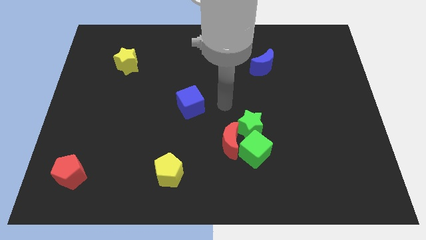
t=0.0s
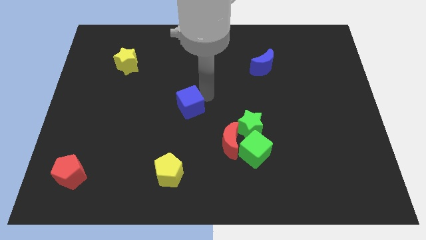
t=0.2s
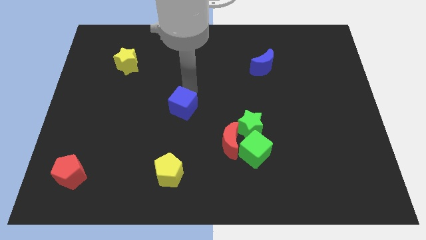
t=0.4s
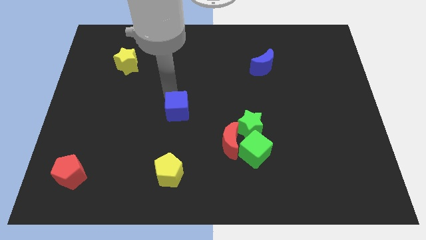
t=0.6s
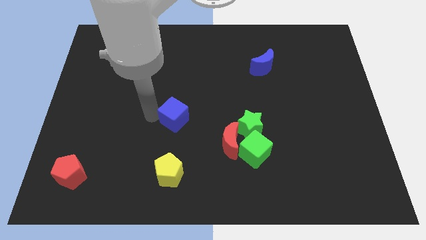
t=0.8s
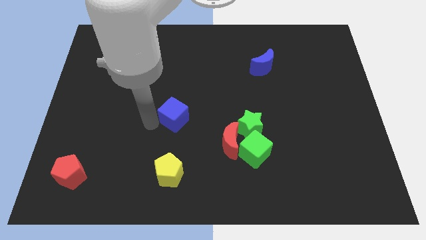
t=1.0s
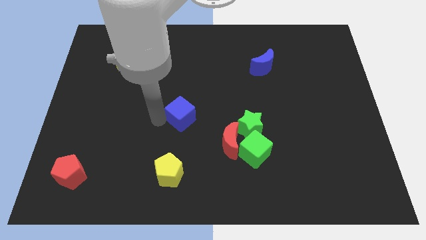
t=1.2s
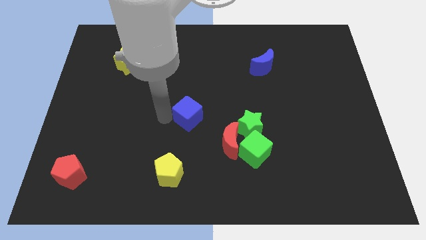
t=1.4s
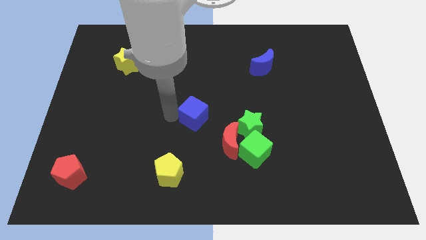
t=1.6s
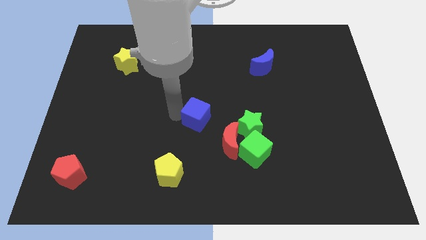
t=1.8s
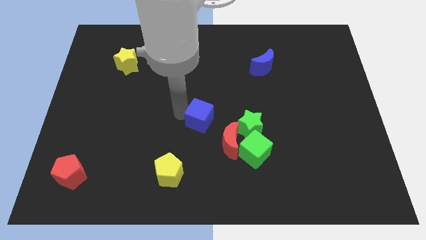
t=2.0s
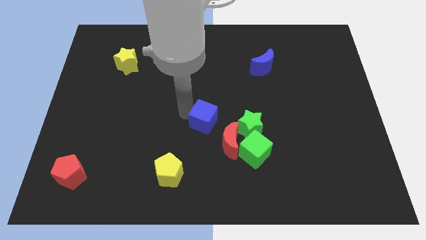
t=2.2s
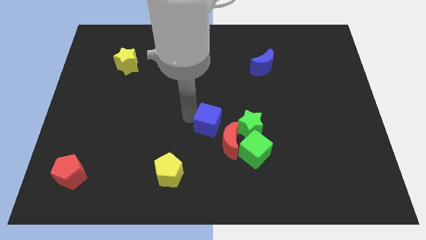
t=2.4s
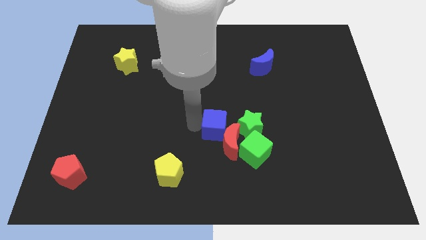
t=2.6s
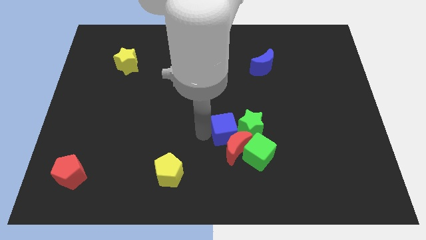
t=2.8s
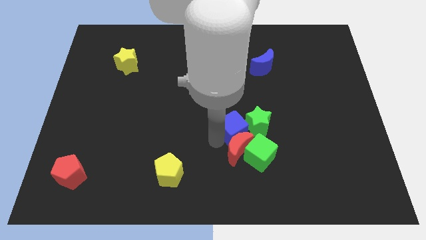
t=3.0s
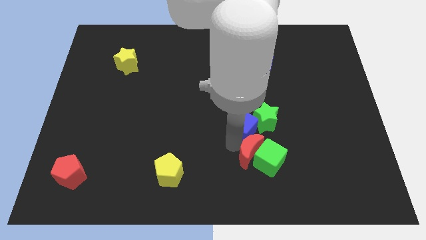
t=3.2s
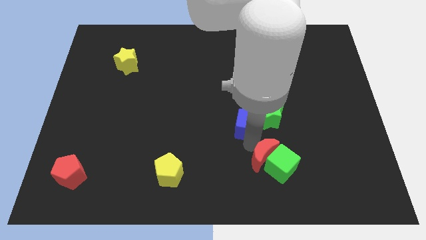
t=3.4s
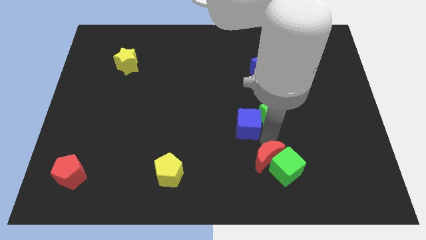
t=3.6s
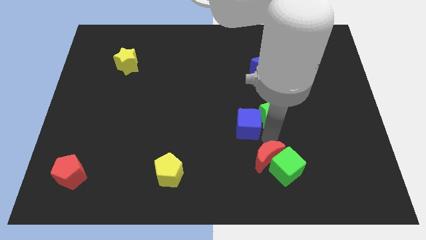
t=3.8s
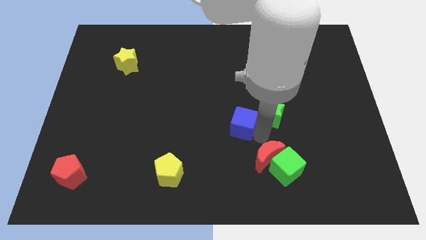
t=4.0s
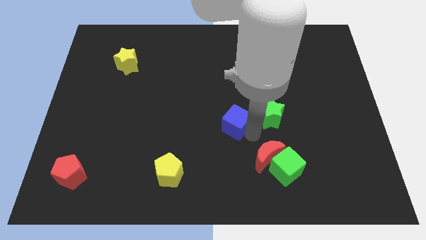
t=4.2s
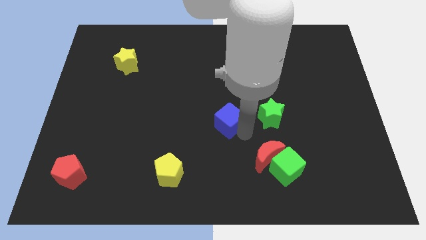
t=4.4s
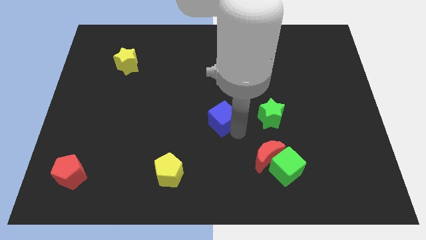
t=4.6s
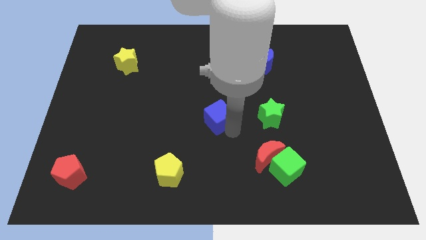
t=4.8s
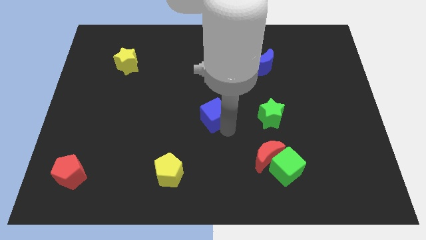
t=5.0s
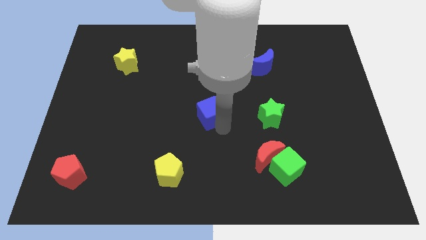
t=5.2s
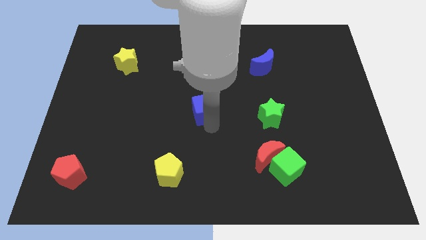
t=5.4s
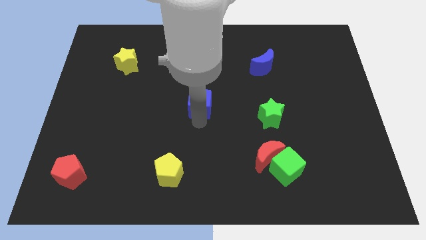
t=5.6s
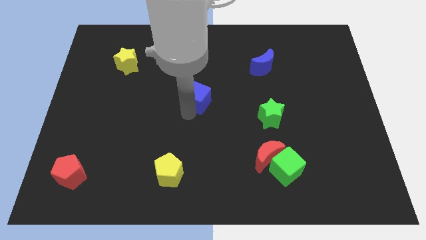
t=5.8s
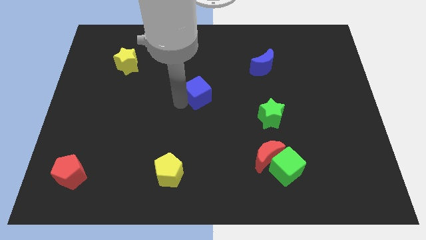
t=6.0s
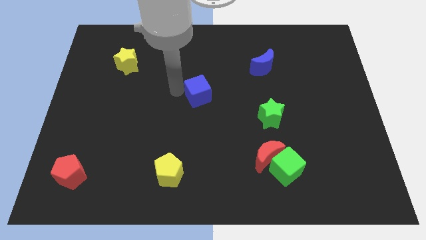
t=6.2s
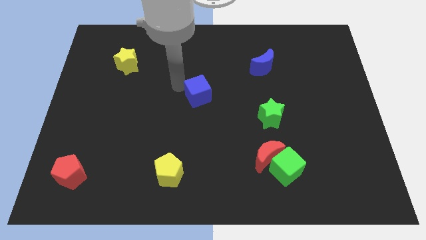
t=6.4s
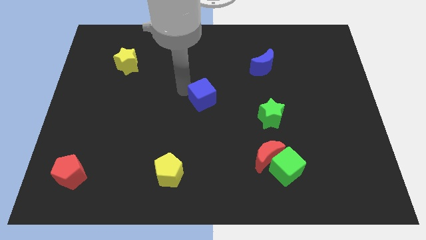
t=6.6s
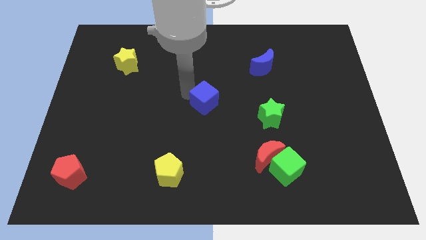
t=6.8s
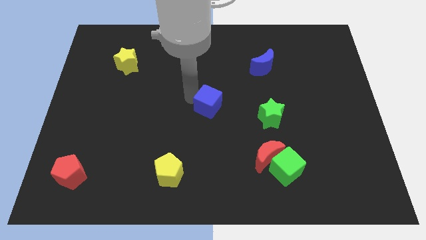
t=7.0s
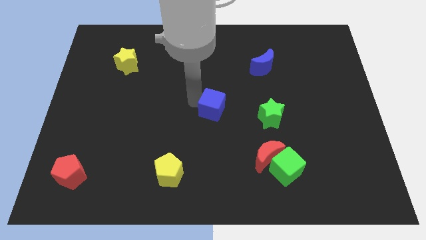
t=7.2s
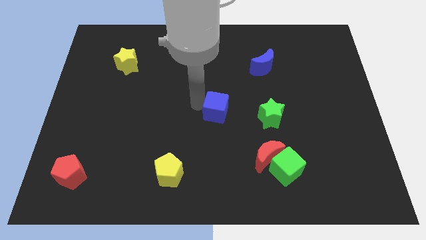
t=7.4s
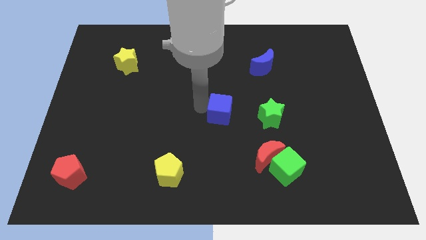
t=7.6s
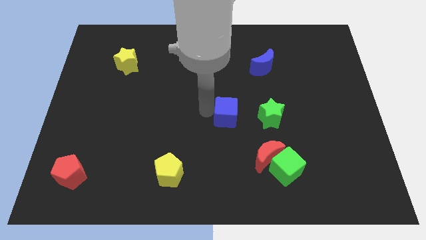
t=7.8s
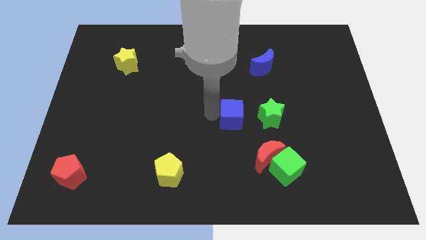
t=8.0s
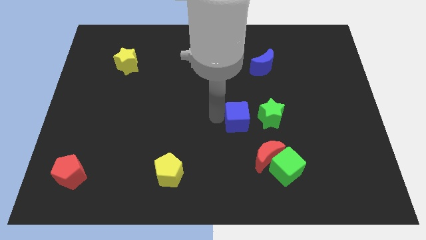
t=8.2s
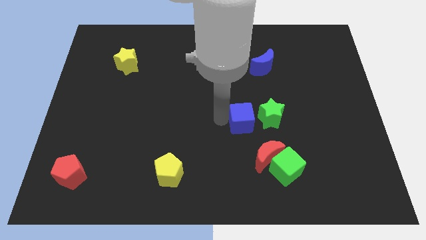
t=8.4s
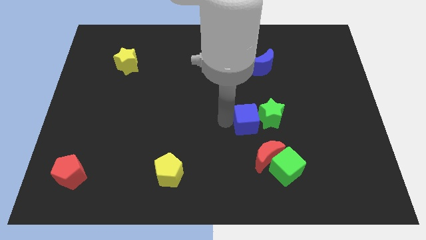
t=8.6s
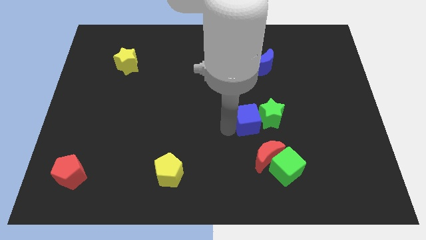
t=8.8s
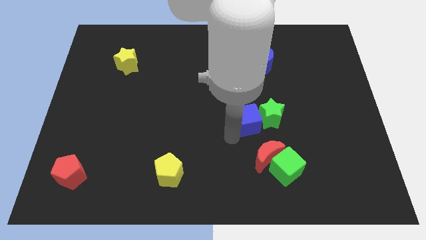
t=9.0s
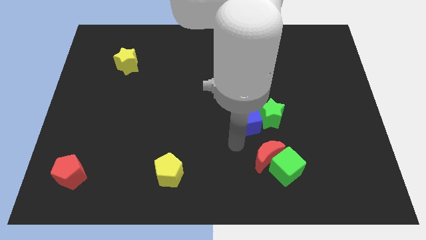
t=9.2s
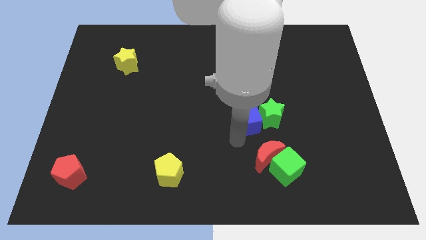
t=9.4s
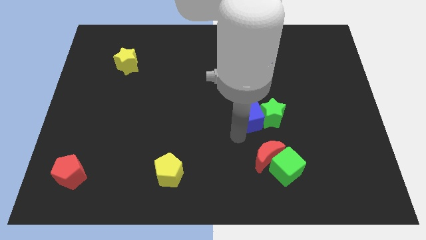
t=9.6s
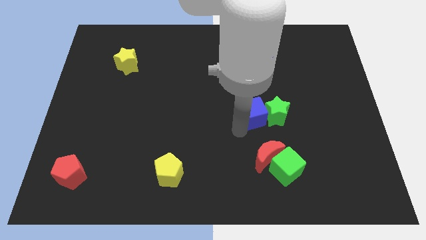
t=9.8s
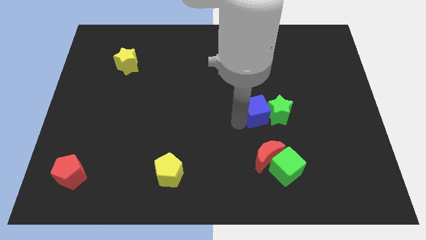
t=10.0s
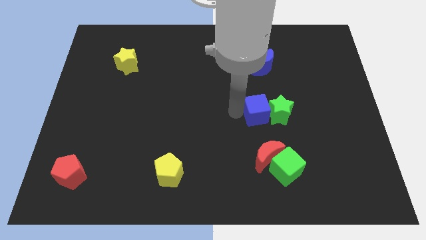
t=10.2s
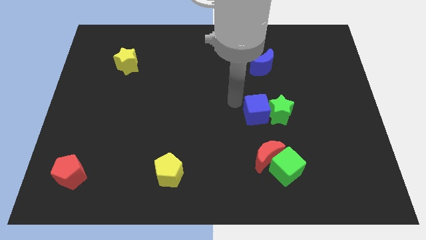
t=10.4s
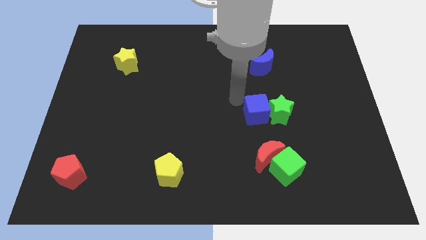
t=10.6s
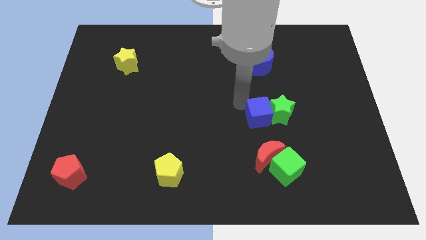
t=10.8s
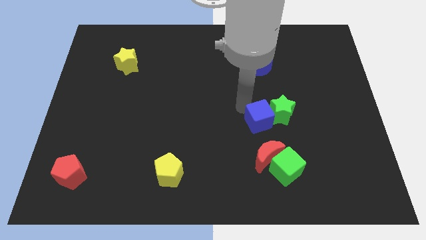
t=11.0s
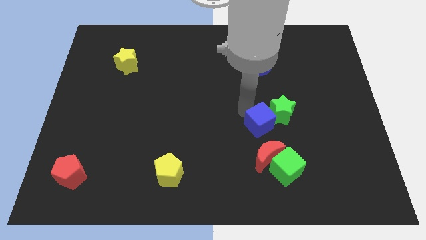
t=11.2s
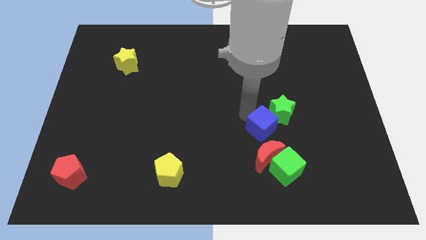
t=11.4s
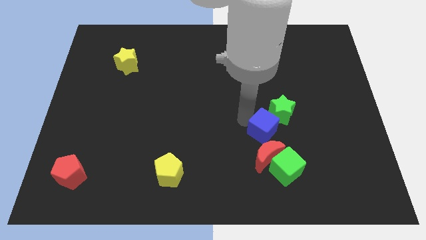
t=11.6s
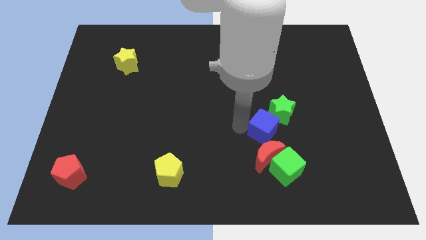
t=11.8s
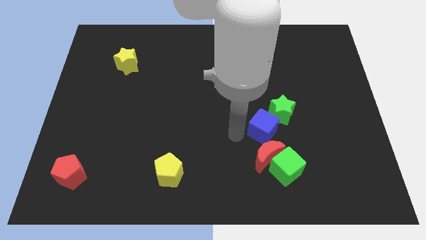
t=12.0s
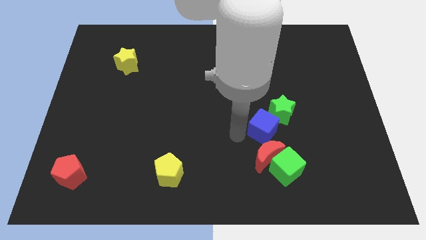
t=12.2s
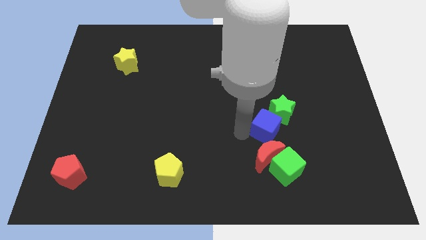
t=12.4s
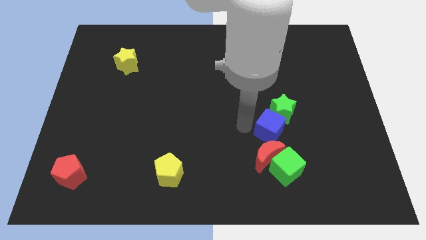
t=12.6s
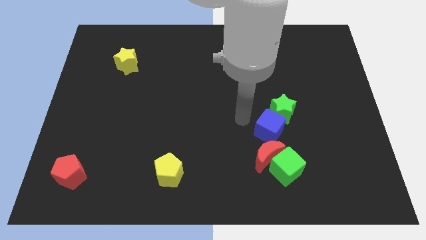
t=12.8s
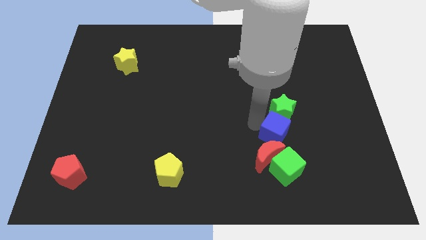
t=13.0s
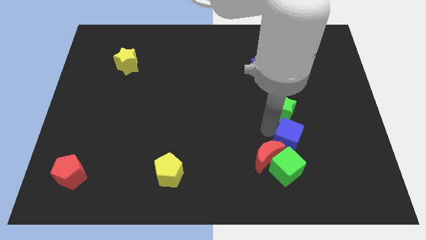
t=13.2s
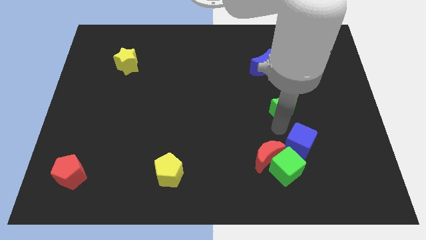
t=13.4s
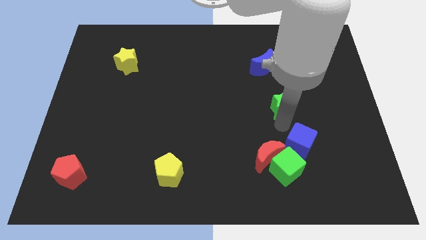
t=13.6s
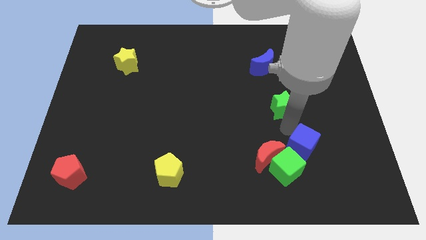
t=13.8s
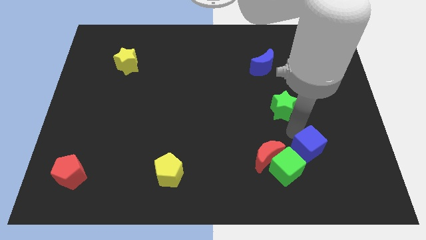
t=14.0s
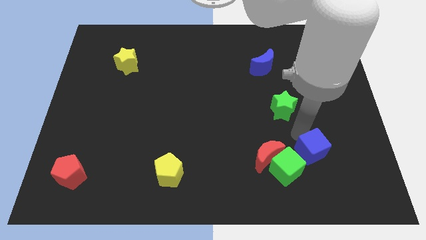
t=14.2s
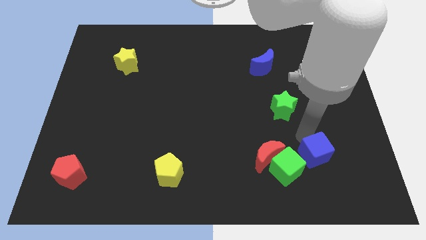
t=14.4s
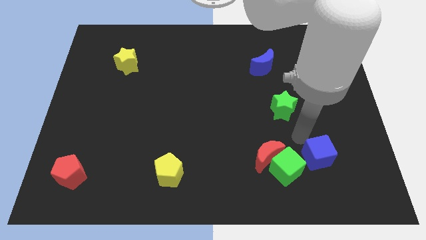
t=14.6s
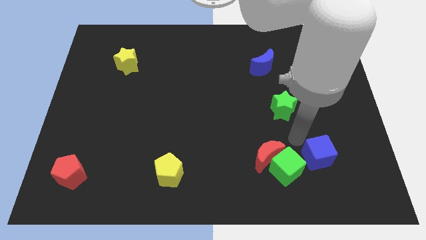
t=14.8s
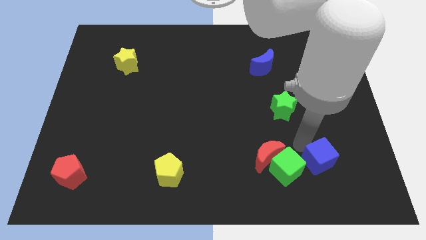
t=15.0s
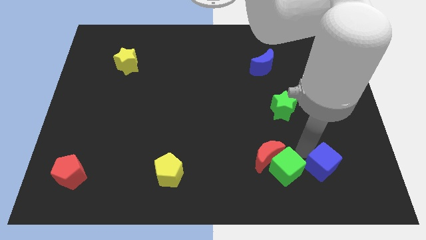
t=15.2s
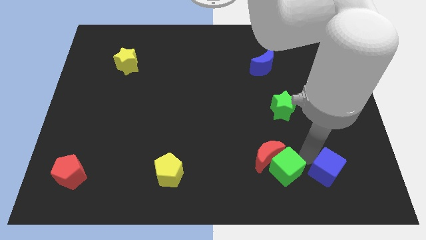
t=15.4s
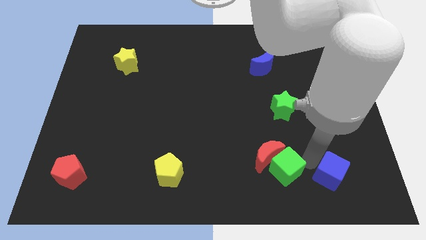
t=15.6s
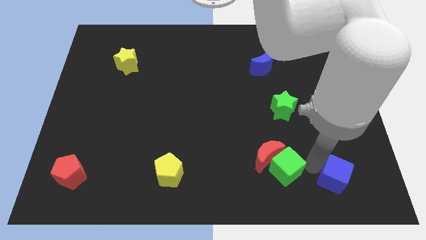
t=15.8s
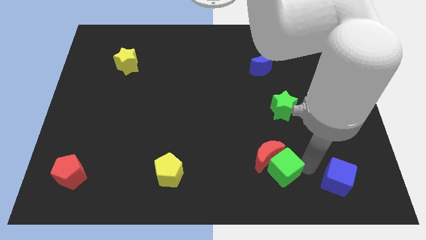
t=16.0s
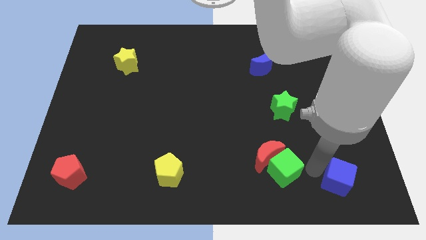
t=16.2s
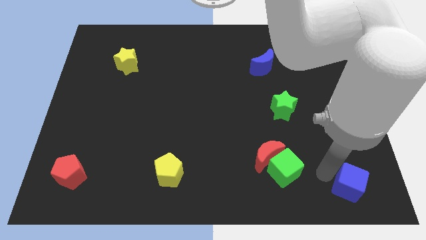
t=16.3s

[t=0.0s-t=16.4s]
put the blue cube to the bottom right corner
